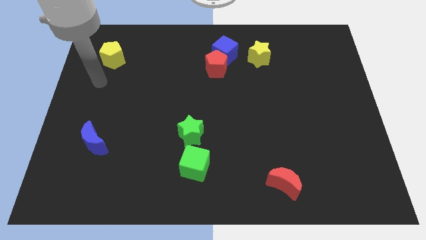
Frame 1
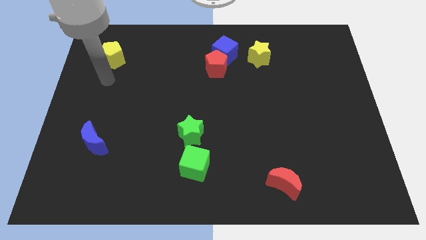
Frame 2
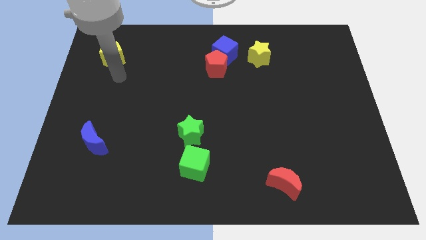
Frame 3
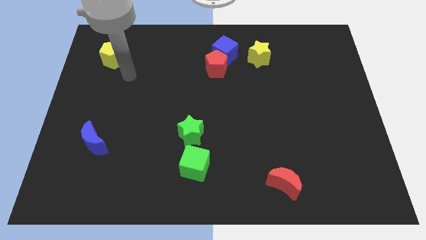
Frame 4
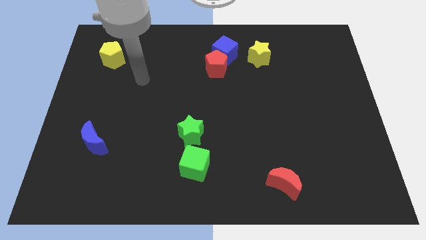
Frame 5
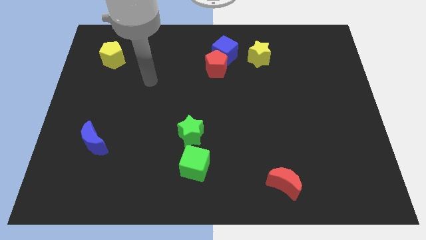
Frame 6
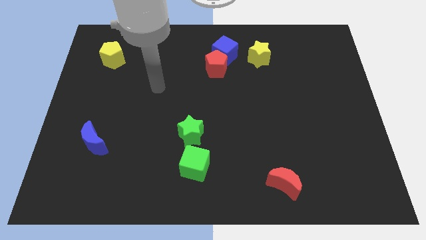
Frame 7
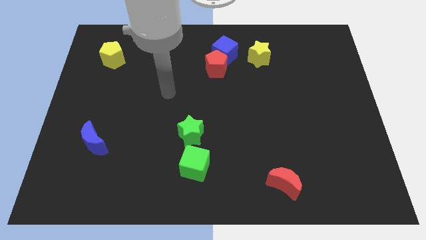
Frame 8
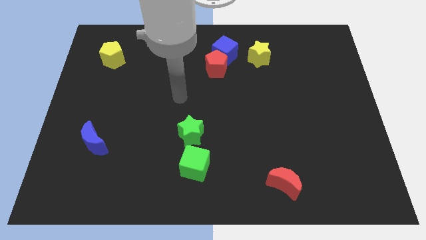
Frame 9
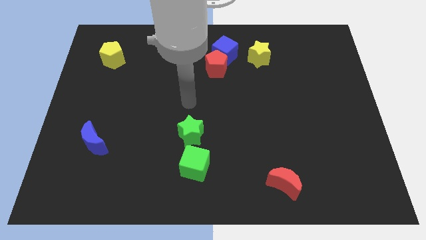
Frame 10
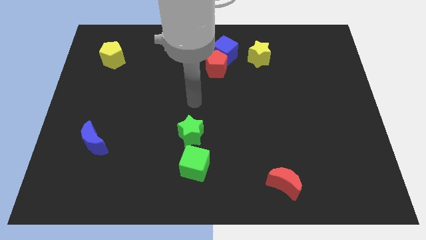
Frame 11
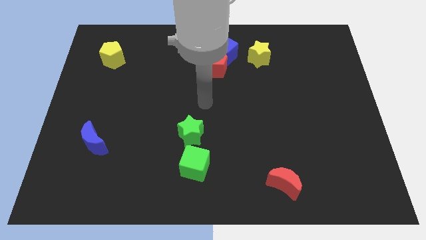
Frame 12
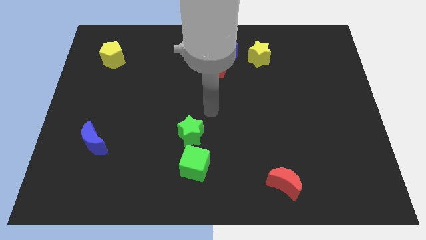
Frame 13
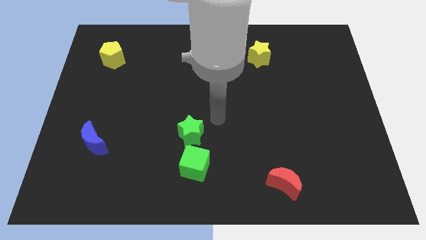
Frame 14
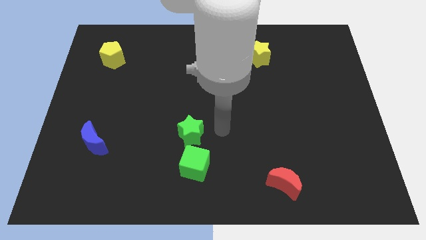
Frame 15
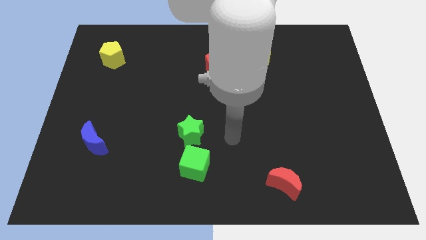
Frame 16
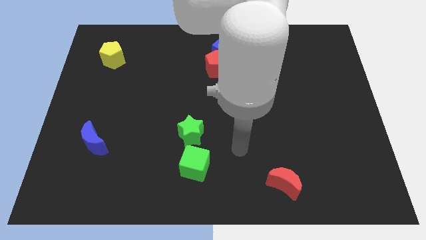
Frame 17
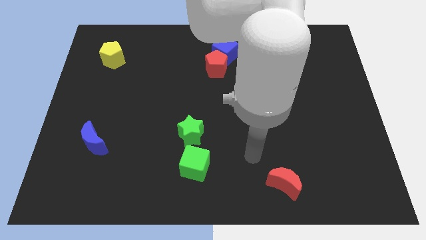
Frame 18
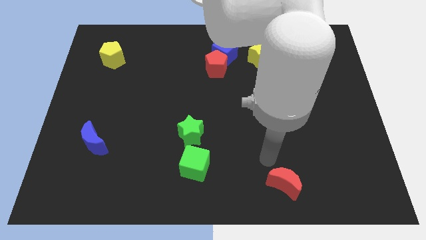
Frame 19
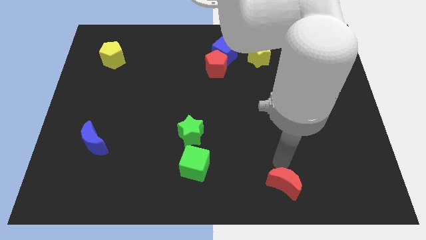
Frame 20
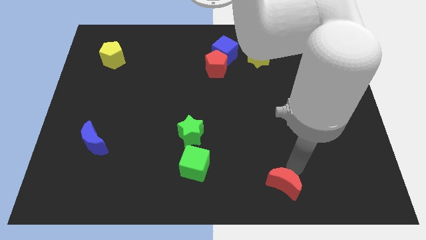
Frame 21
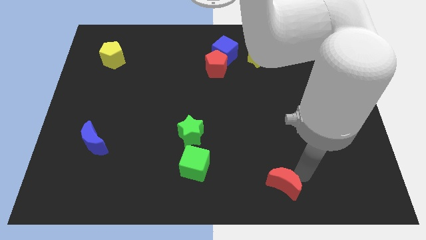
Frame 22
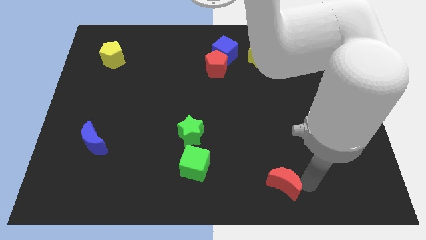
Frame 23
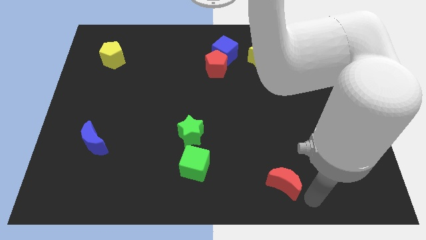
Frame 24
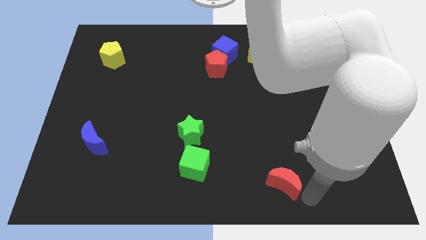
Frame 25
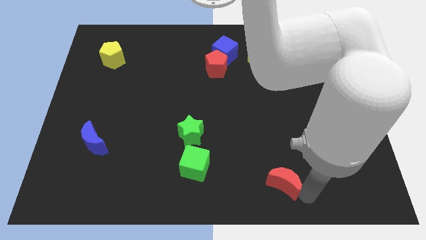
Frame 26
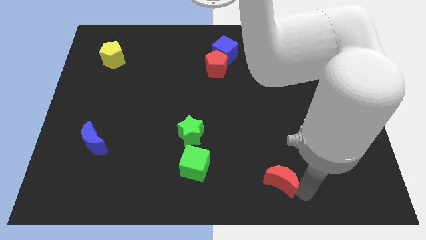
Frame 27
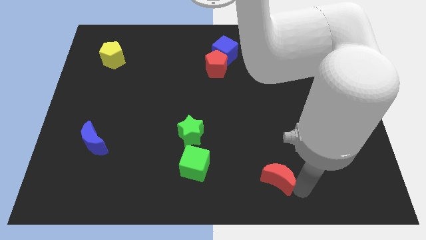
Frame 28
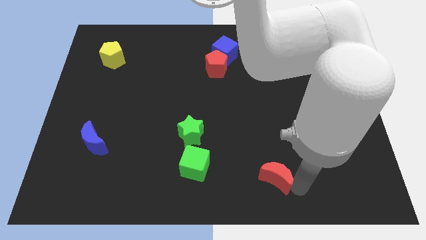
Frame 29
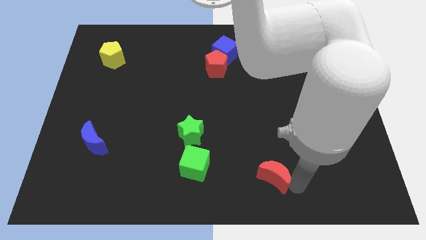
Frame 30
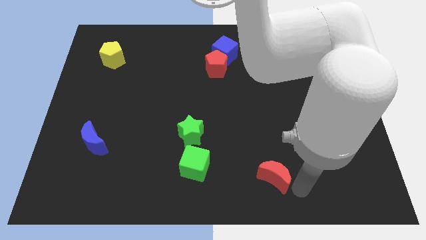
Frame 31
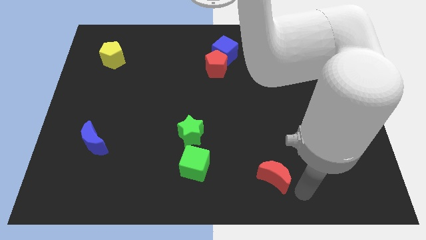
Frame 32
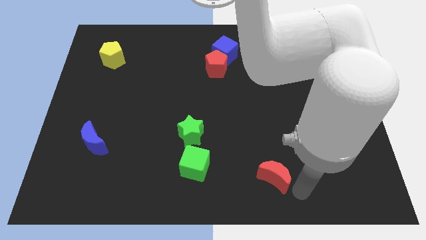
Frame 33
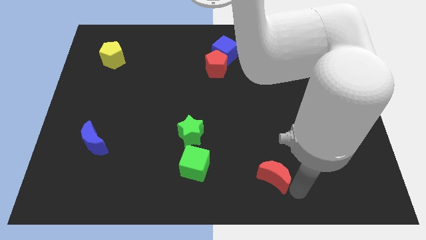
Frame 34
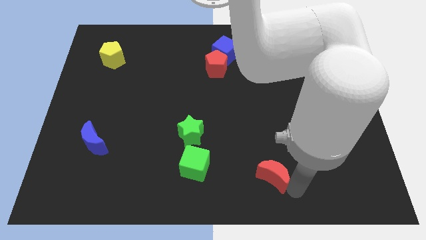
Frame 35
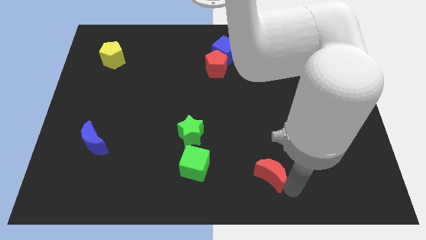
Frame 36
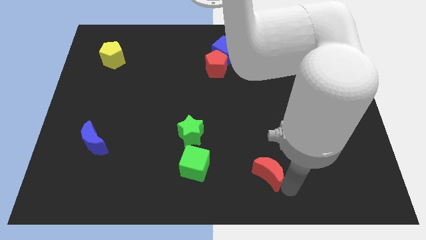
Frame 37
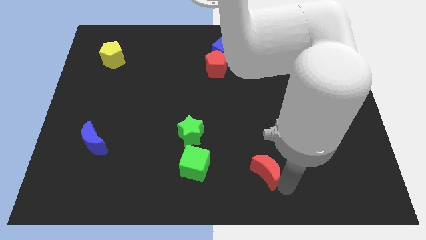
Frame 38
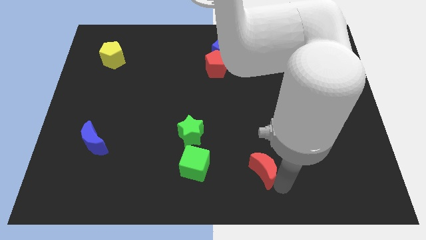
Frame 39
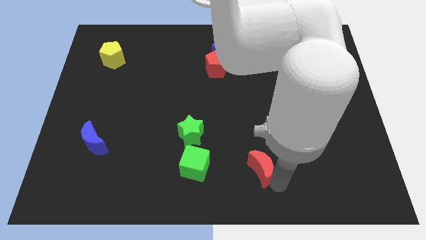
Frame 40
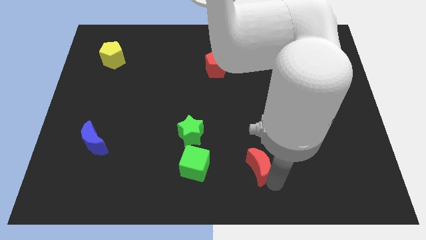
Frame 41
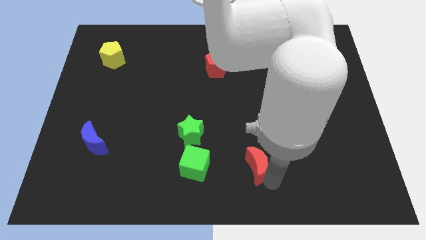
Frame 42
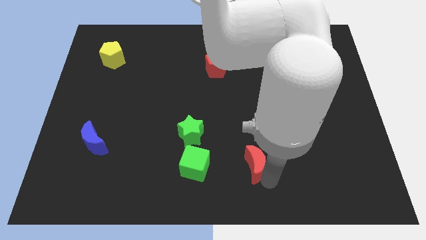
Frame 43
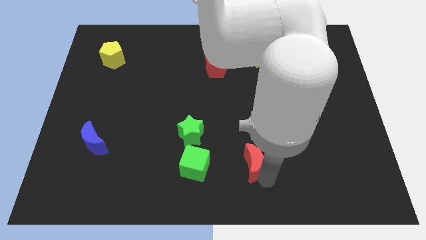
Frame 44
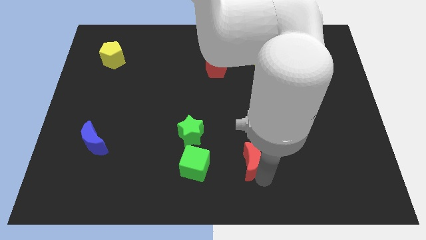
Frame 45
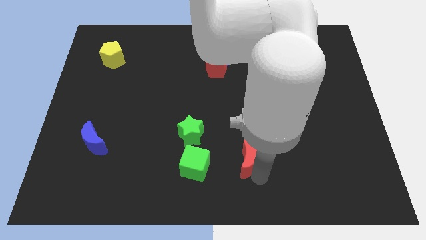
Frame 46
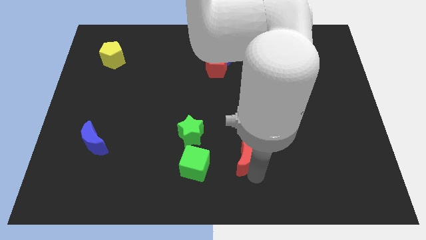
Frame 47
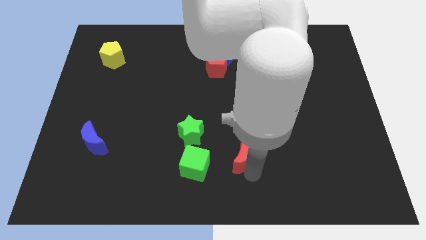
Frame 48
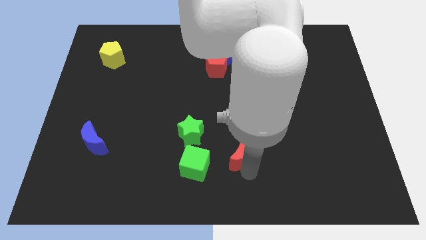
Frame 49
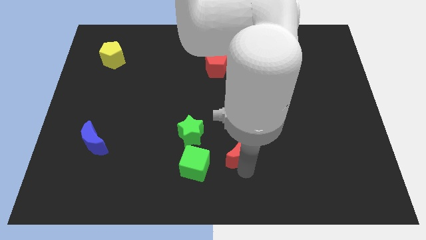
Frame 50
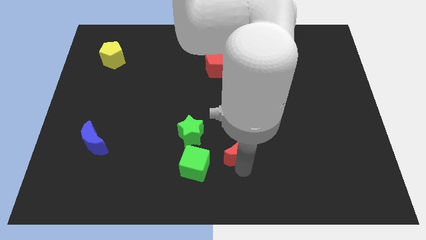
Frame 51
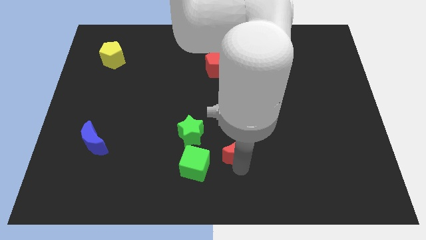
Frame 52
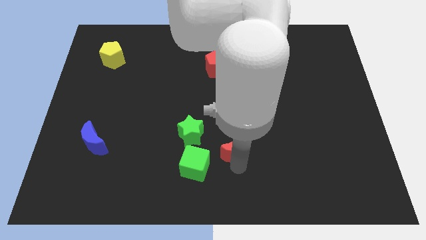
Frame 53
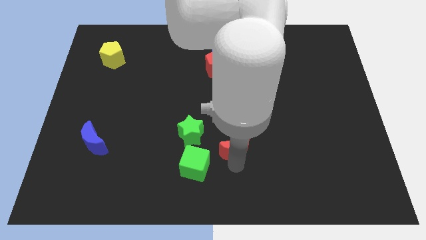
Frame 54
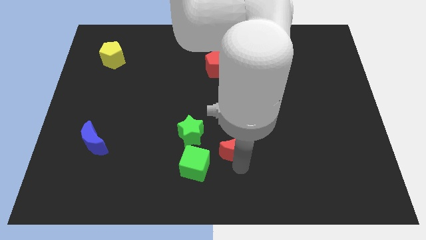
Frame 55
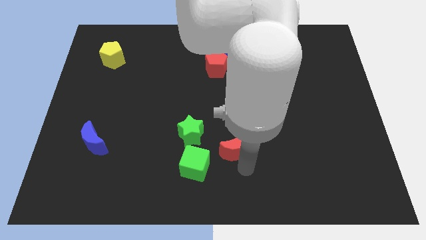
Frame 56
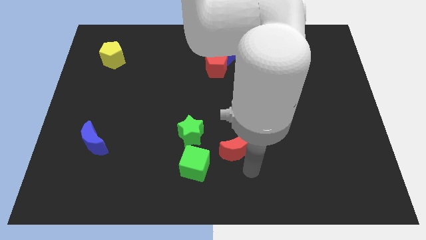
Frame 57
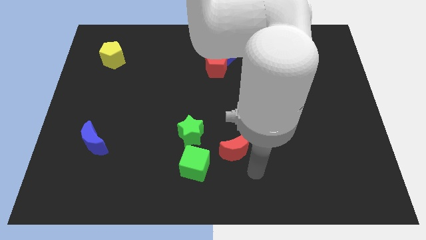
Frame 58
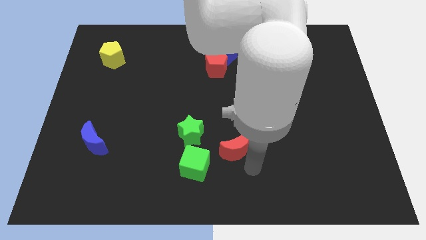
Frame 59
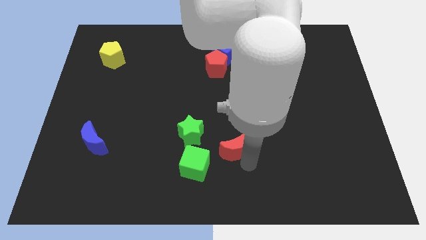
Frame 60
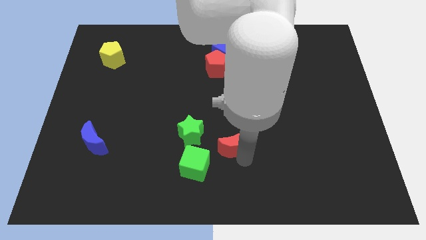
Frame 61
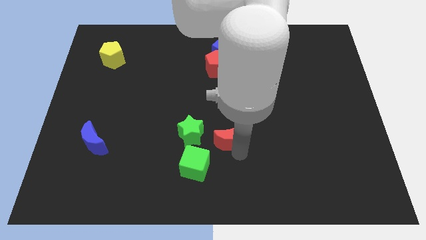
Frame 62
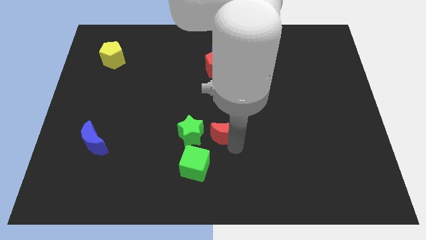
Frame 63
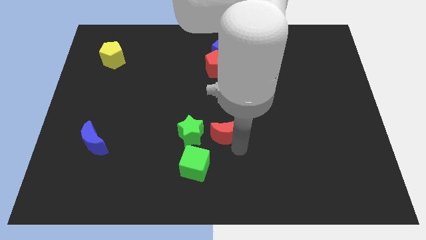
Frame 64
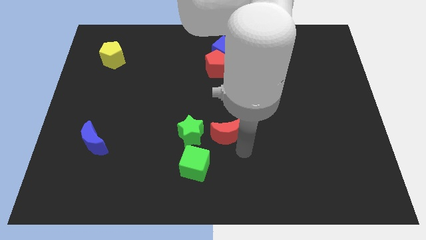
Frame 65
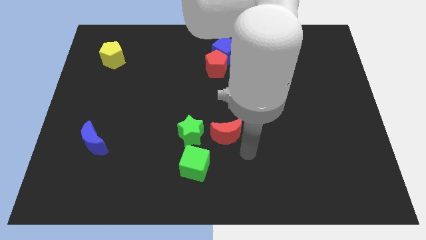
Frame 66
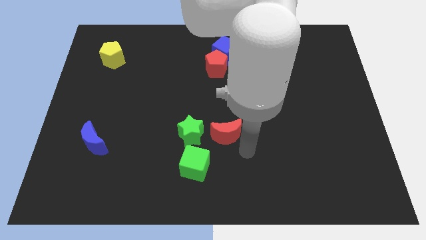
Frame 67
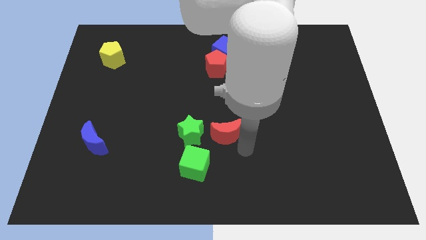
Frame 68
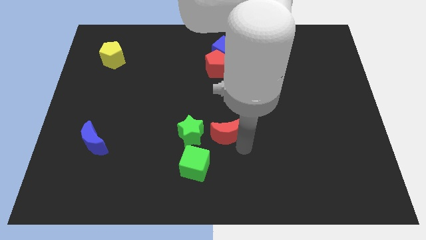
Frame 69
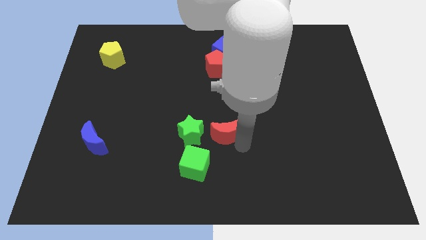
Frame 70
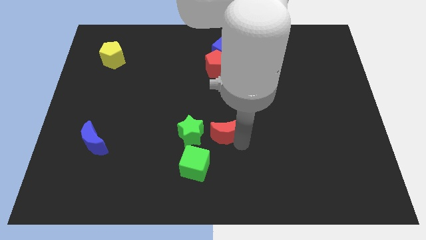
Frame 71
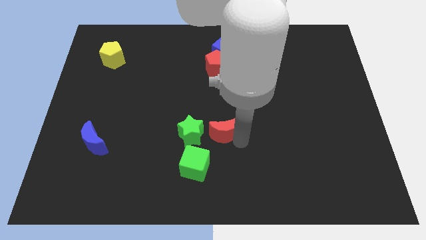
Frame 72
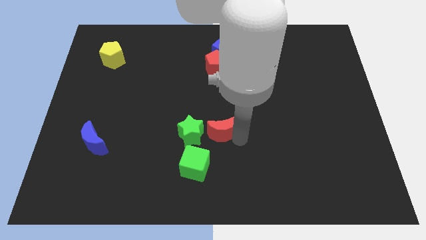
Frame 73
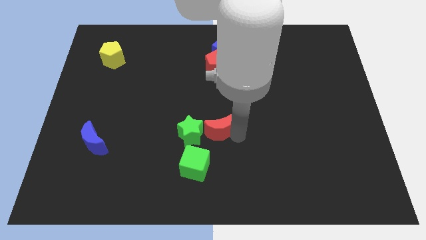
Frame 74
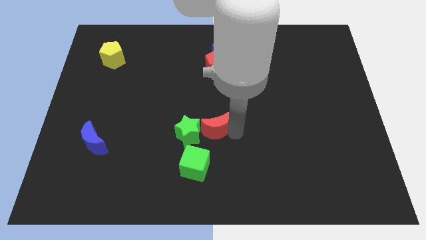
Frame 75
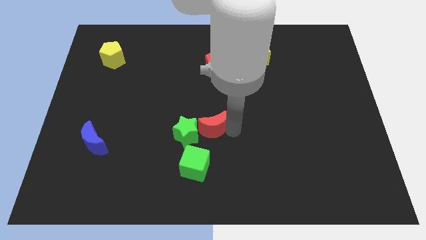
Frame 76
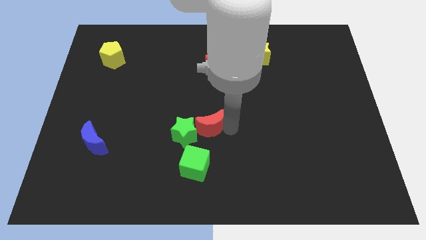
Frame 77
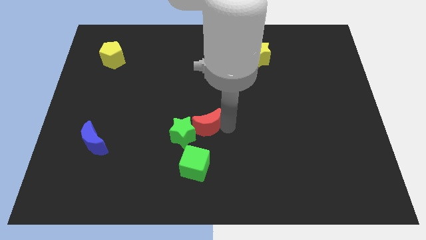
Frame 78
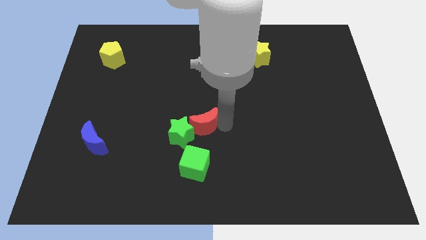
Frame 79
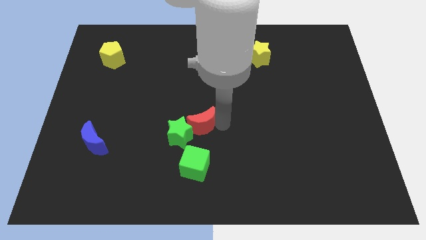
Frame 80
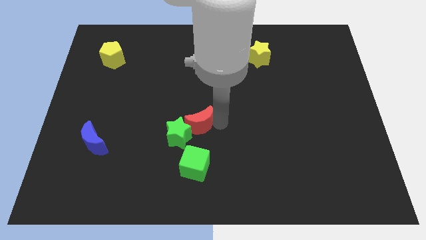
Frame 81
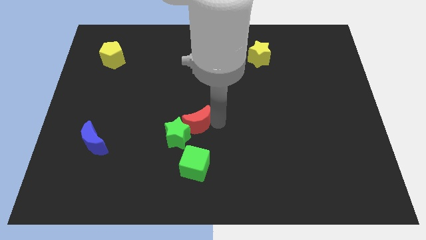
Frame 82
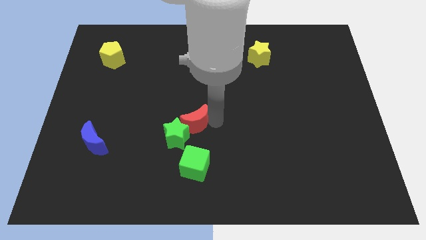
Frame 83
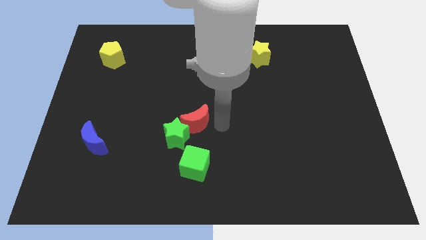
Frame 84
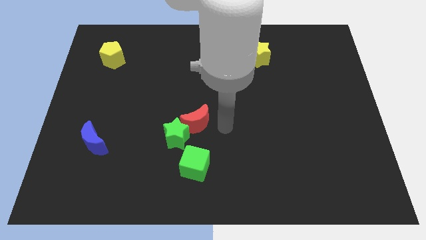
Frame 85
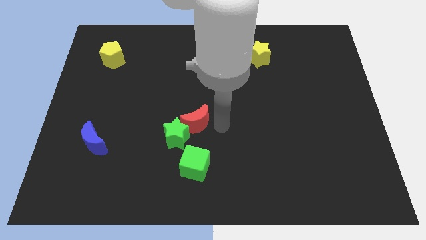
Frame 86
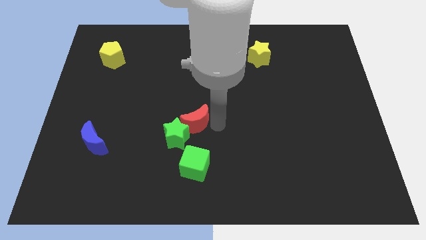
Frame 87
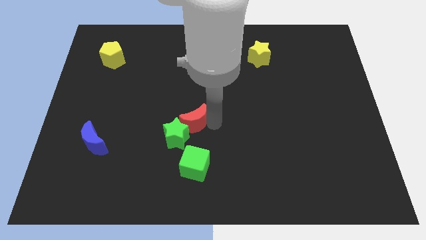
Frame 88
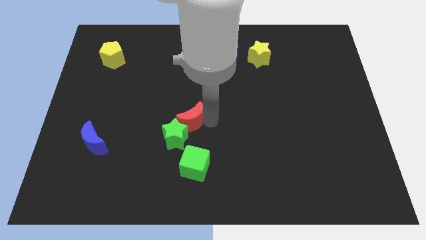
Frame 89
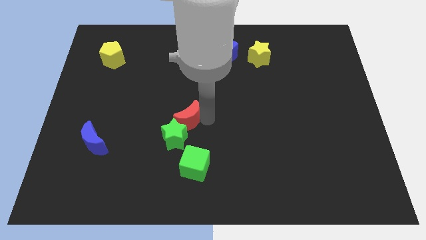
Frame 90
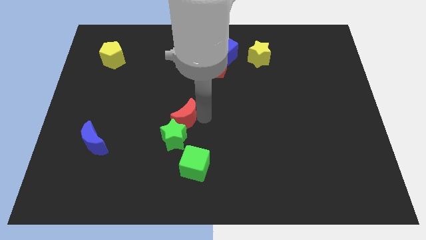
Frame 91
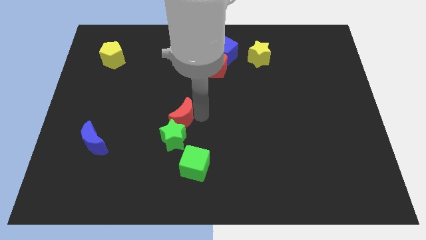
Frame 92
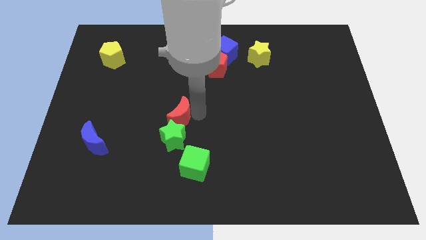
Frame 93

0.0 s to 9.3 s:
push the red moon diagonally up and to the left of the green star
